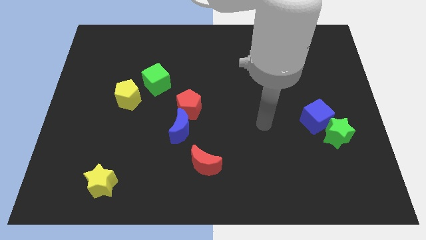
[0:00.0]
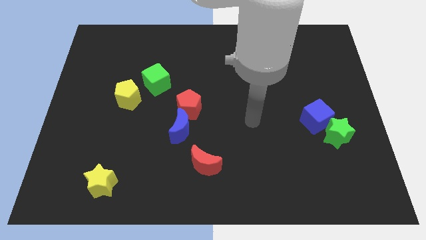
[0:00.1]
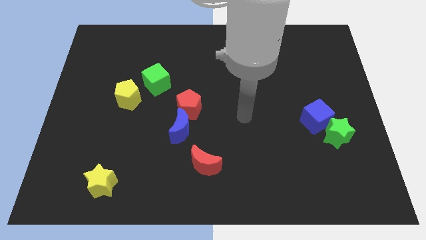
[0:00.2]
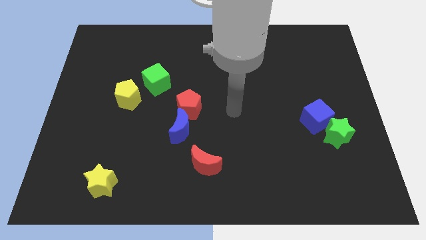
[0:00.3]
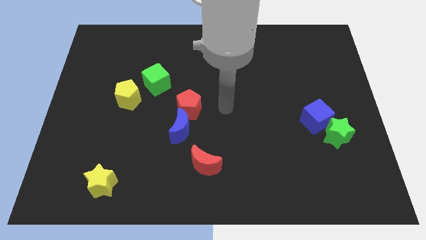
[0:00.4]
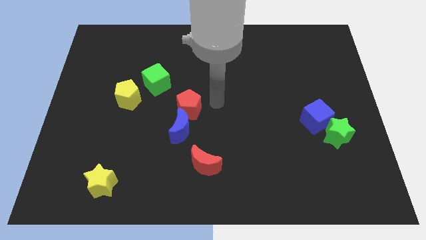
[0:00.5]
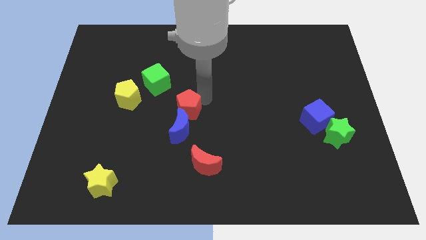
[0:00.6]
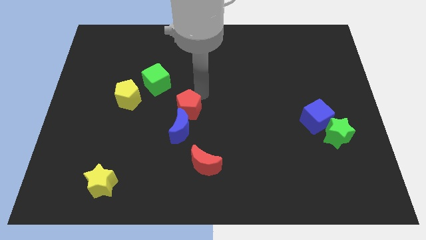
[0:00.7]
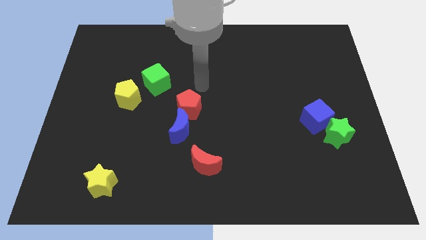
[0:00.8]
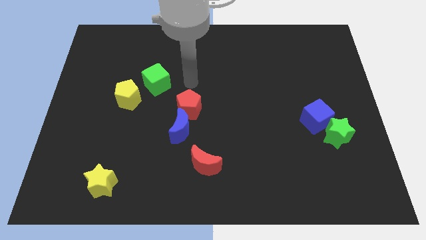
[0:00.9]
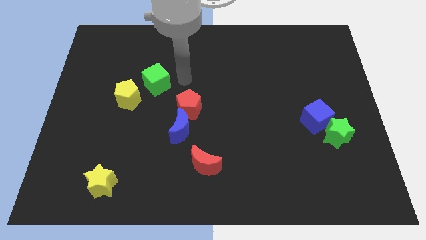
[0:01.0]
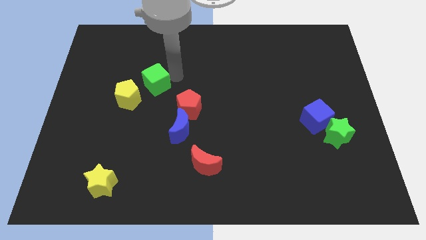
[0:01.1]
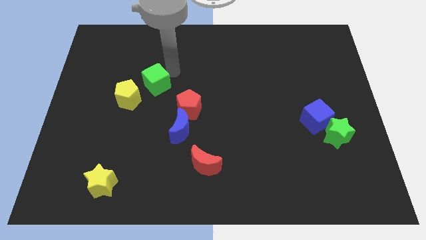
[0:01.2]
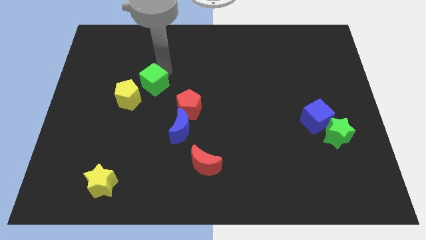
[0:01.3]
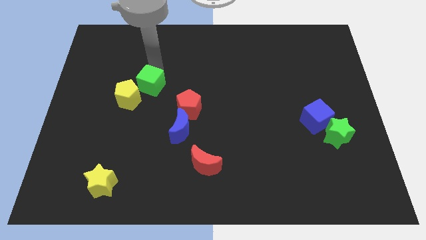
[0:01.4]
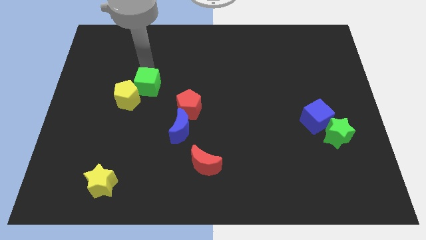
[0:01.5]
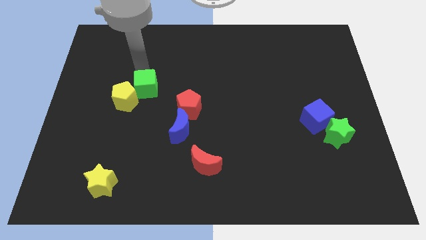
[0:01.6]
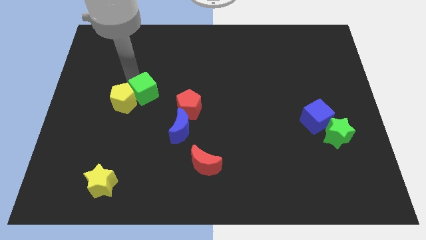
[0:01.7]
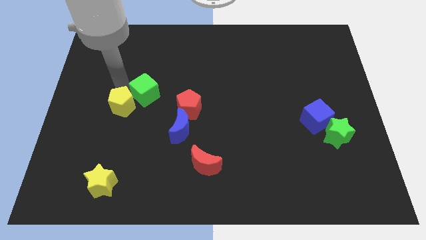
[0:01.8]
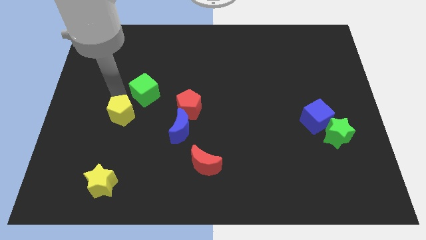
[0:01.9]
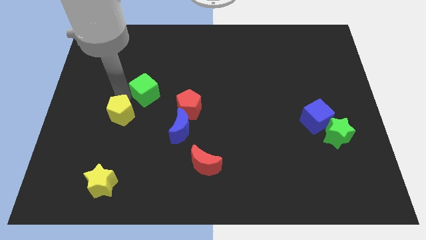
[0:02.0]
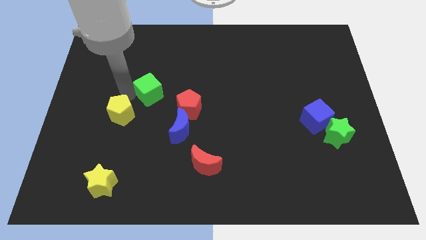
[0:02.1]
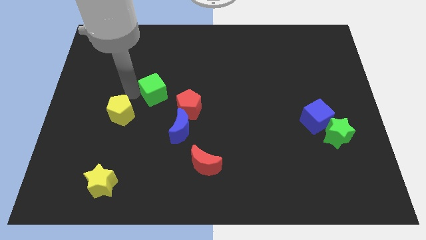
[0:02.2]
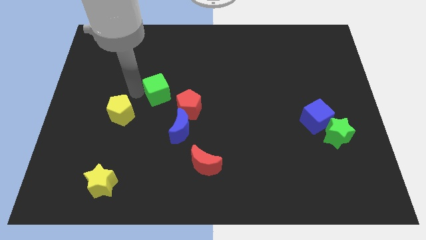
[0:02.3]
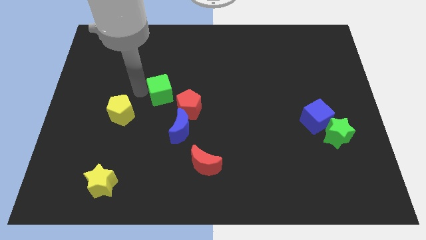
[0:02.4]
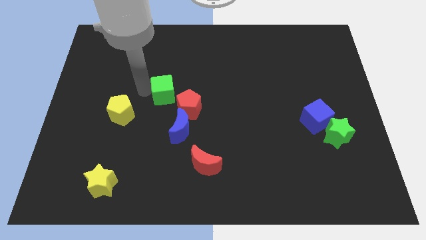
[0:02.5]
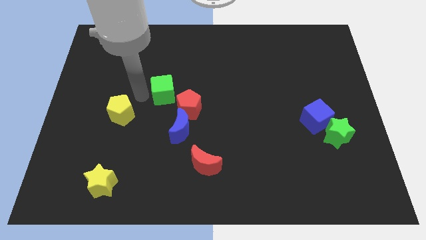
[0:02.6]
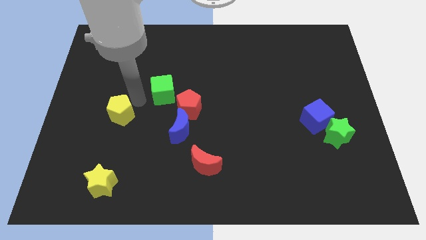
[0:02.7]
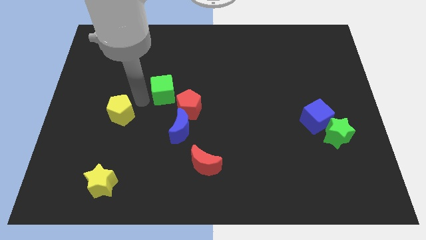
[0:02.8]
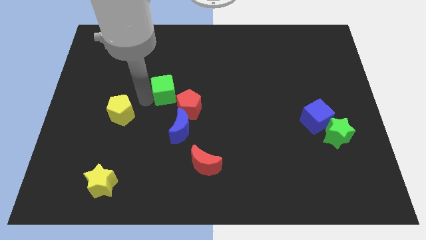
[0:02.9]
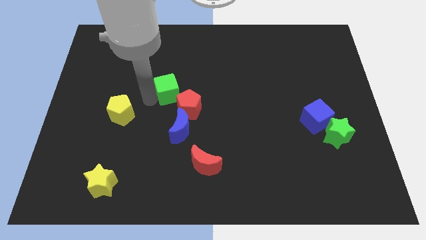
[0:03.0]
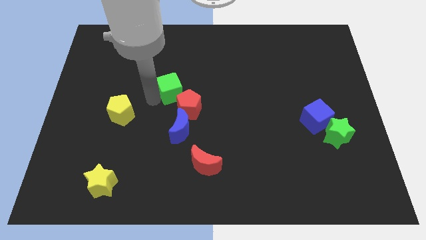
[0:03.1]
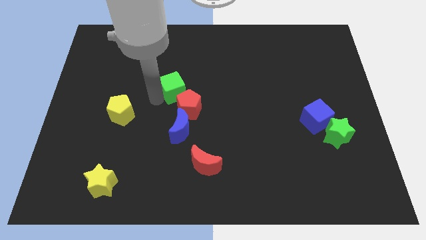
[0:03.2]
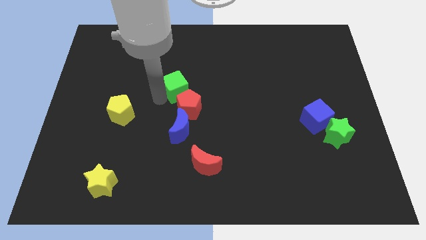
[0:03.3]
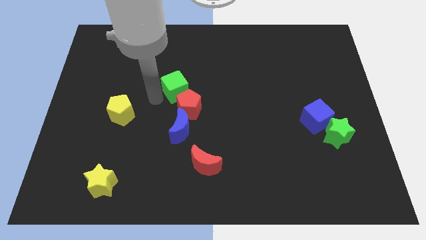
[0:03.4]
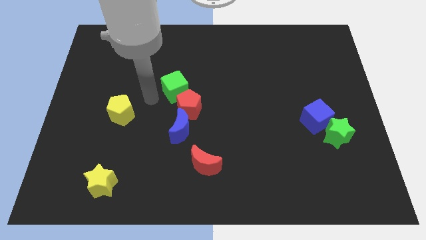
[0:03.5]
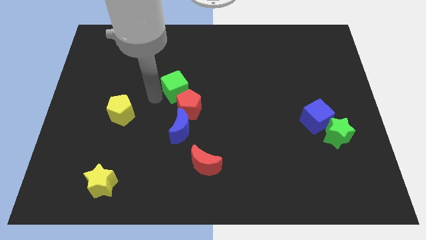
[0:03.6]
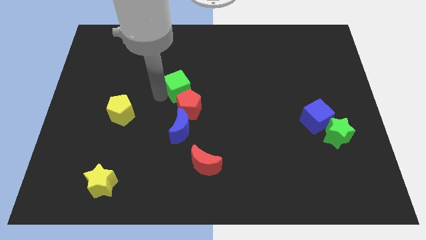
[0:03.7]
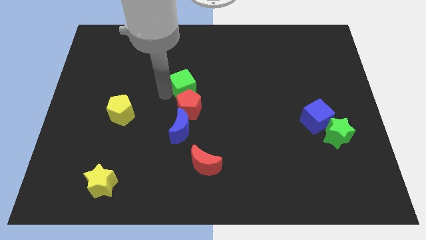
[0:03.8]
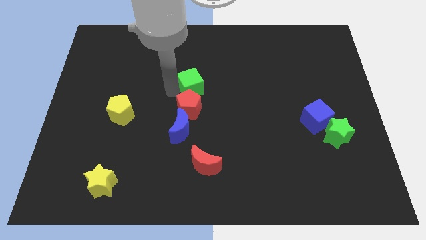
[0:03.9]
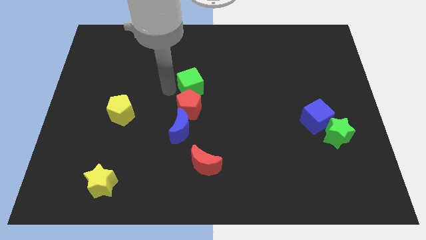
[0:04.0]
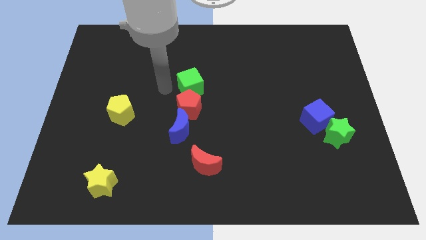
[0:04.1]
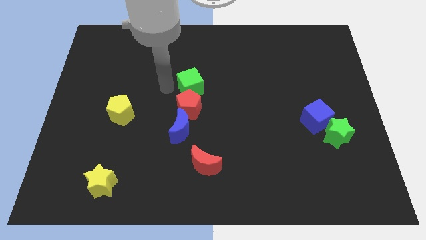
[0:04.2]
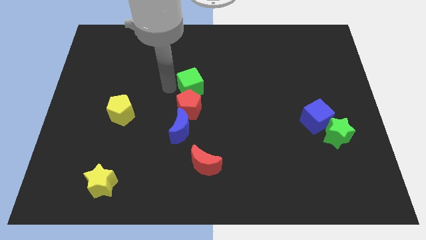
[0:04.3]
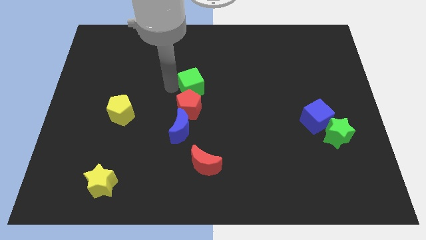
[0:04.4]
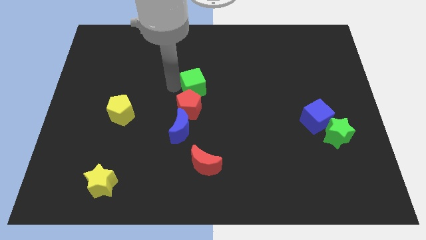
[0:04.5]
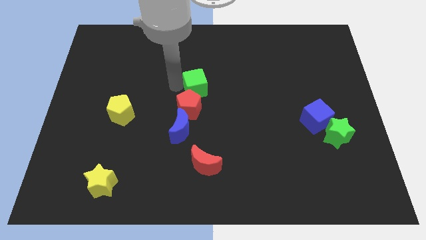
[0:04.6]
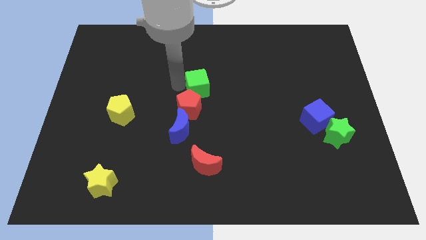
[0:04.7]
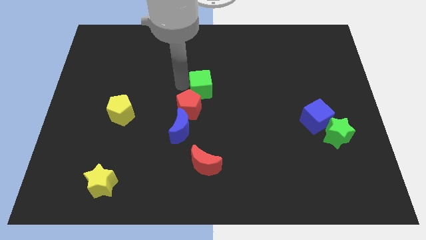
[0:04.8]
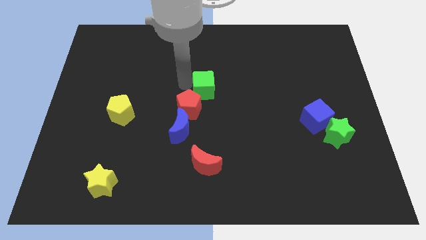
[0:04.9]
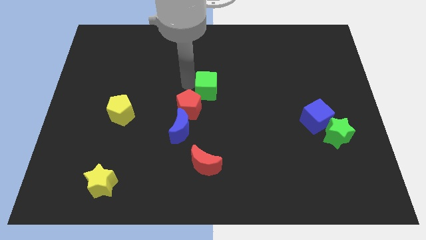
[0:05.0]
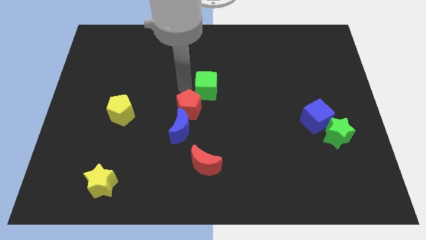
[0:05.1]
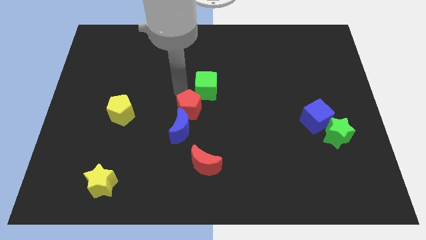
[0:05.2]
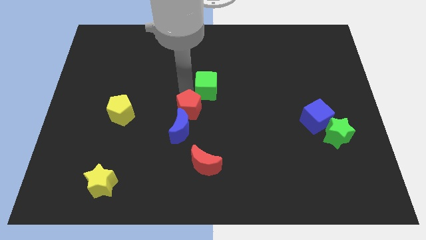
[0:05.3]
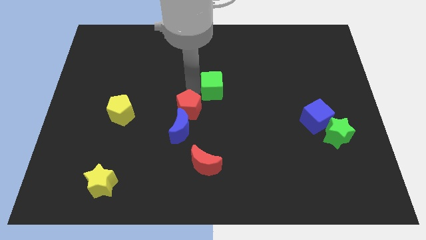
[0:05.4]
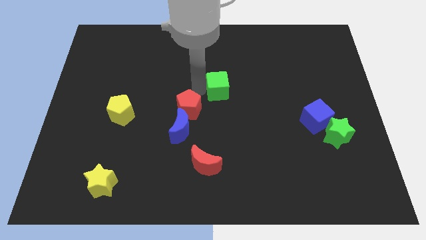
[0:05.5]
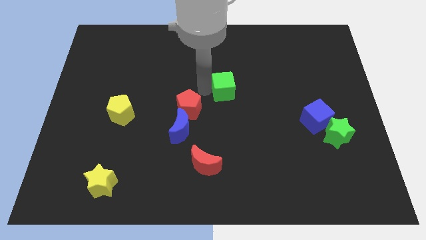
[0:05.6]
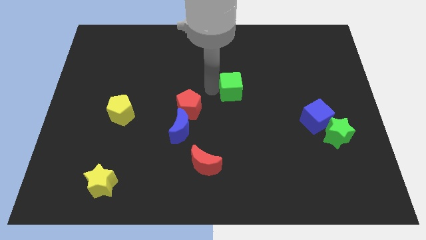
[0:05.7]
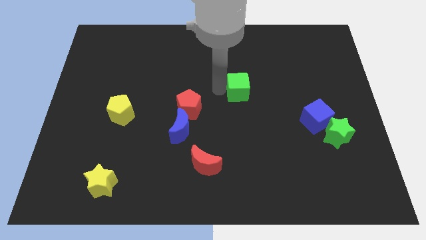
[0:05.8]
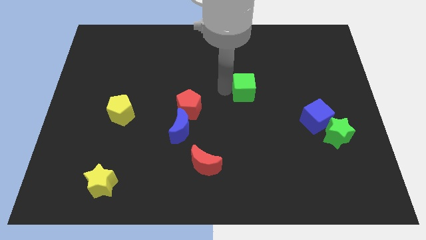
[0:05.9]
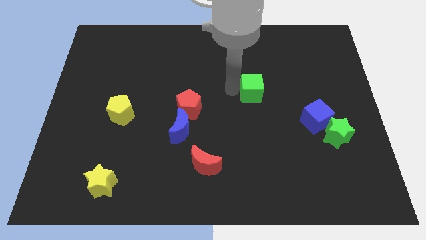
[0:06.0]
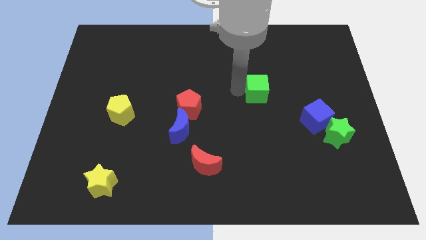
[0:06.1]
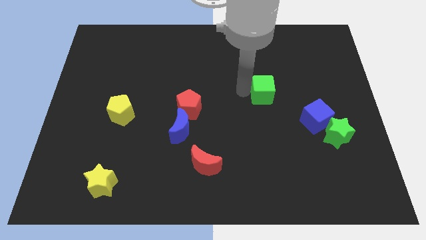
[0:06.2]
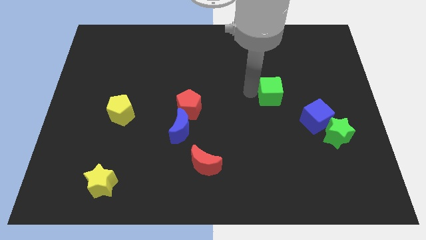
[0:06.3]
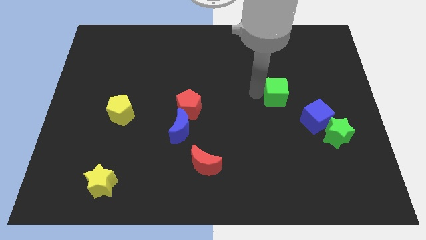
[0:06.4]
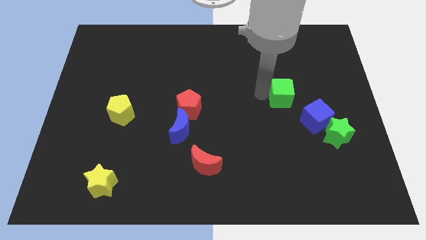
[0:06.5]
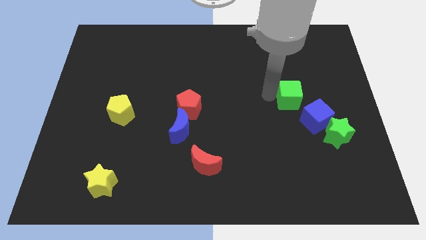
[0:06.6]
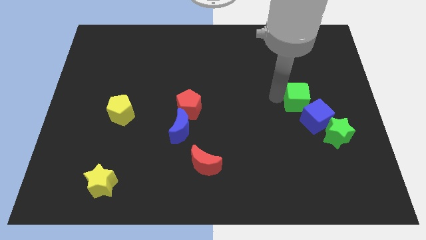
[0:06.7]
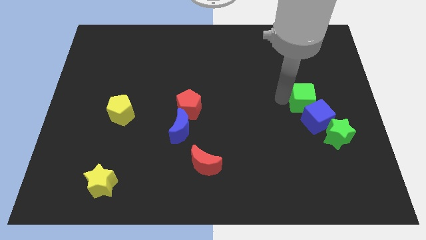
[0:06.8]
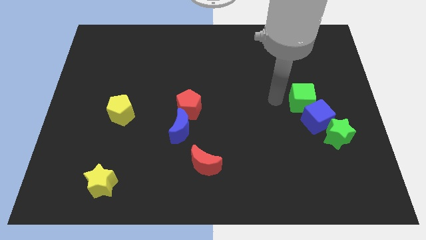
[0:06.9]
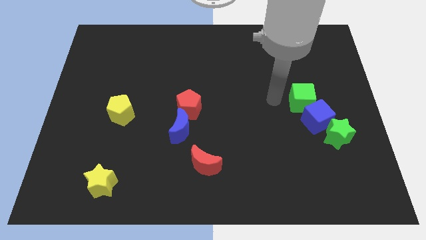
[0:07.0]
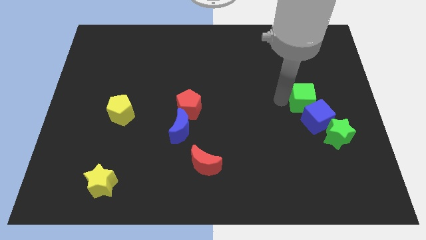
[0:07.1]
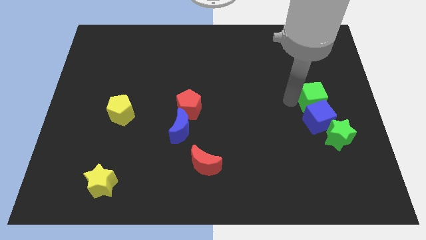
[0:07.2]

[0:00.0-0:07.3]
move the green cube to the top right side of the blue cube

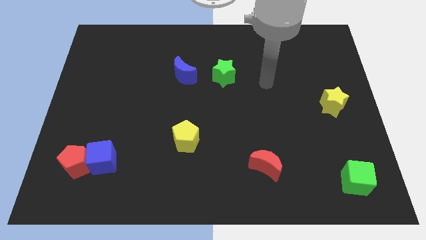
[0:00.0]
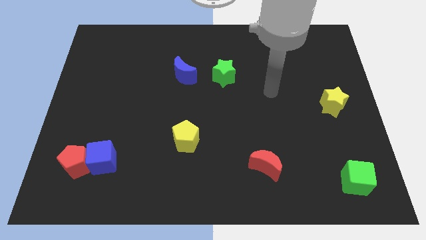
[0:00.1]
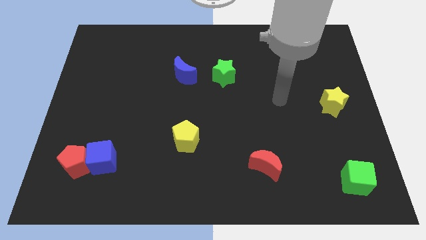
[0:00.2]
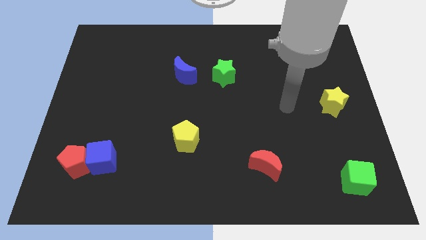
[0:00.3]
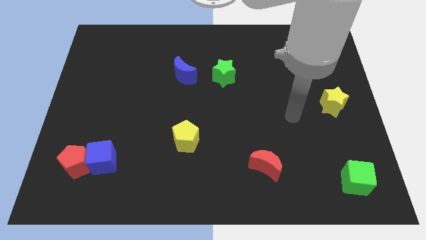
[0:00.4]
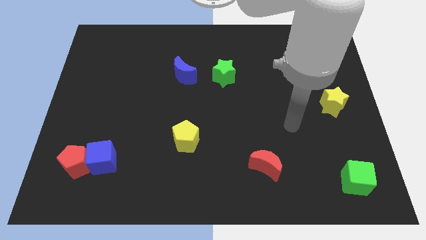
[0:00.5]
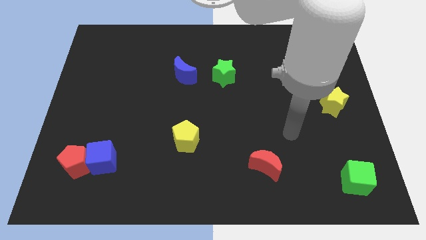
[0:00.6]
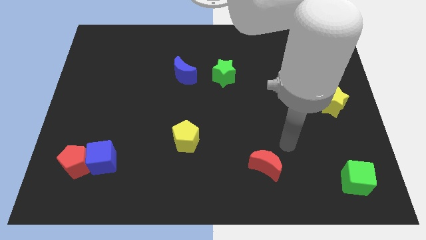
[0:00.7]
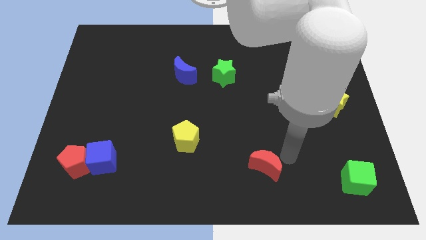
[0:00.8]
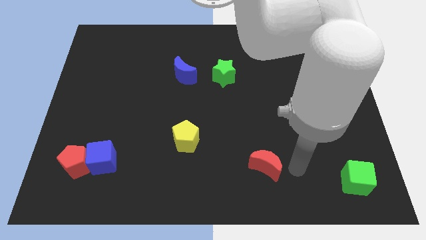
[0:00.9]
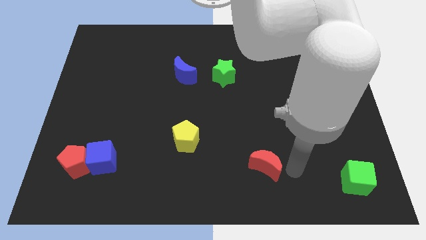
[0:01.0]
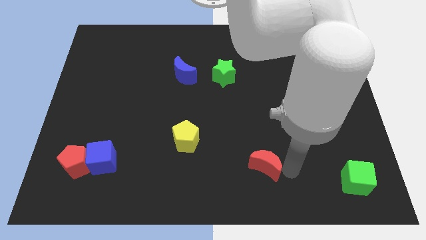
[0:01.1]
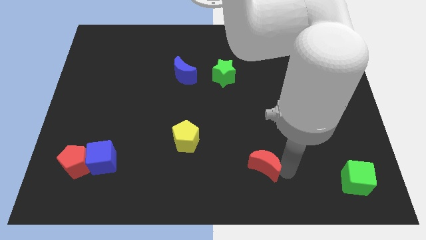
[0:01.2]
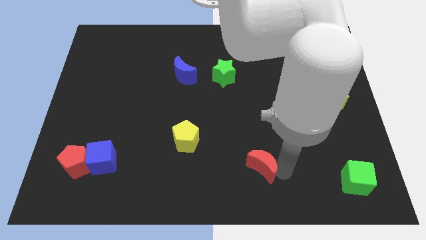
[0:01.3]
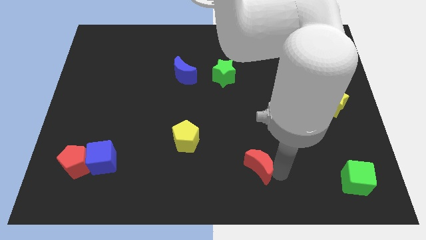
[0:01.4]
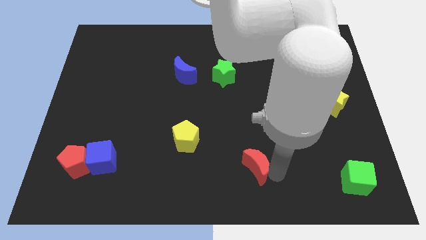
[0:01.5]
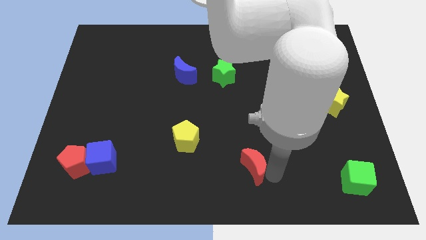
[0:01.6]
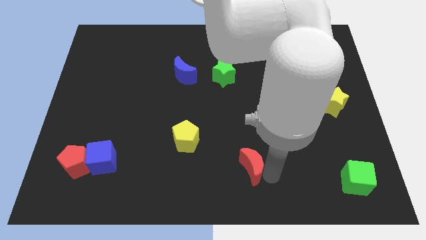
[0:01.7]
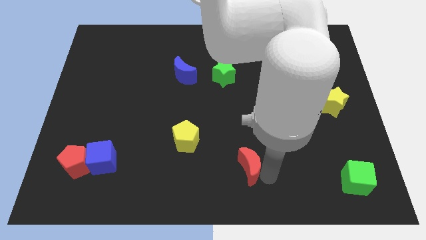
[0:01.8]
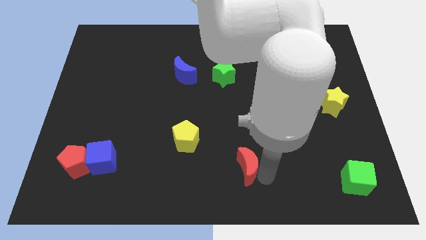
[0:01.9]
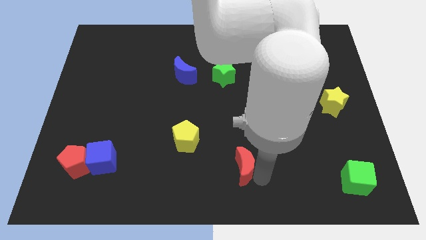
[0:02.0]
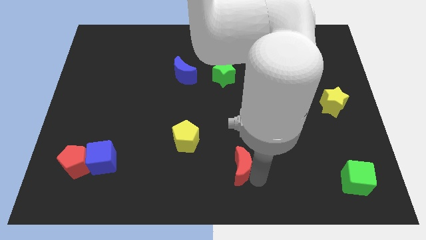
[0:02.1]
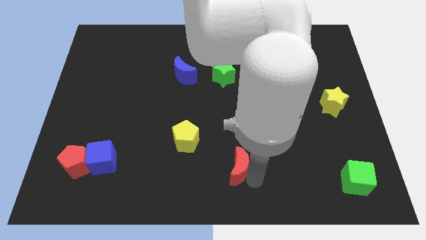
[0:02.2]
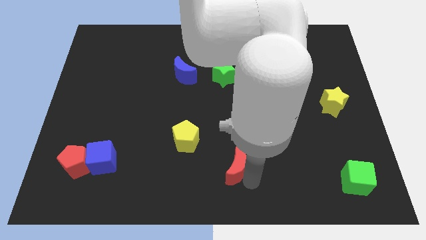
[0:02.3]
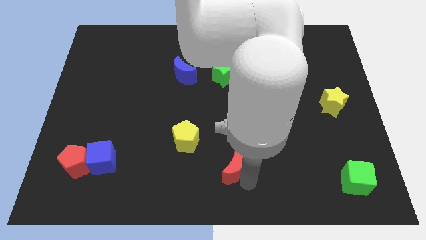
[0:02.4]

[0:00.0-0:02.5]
put the red moon to the bottom right side of the yellow pentagon
